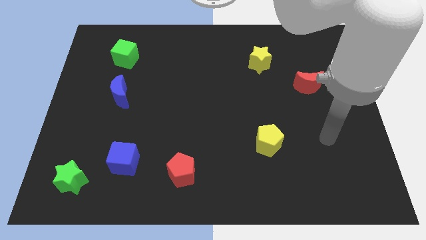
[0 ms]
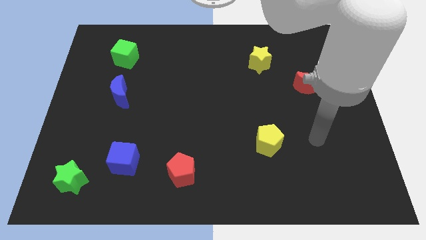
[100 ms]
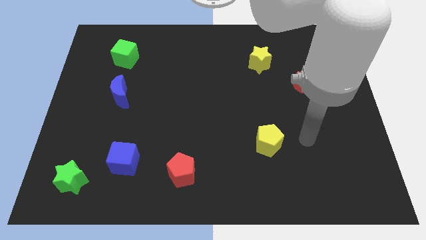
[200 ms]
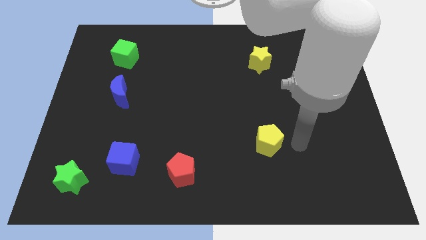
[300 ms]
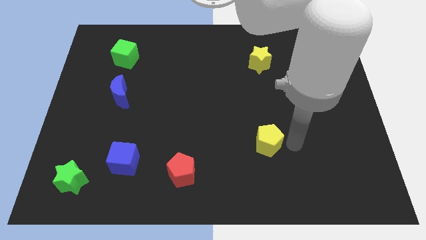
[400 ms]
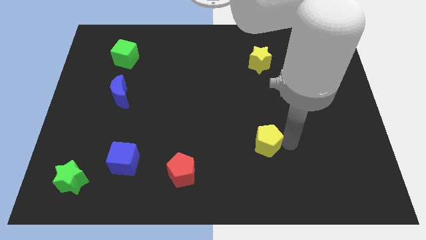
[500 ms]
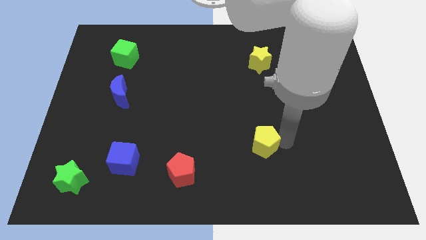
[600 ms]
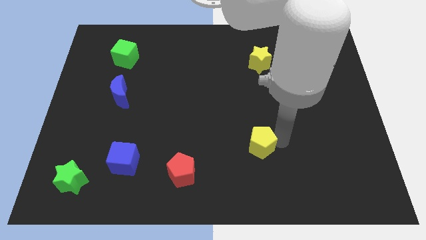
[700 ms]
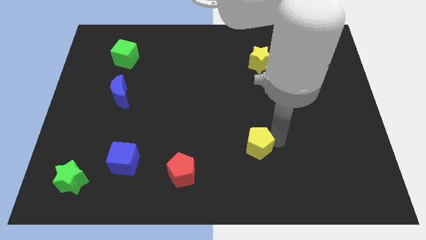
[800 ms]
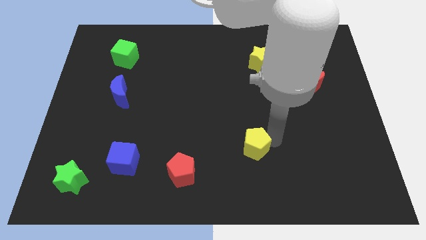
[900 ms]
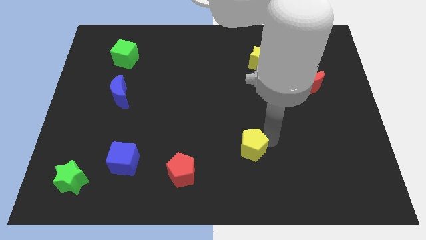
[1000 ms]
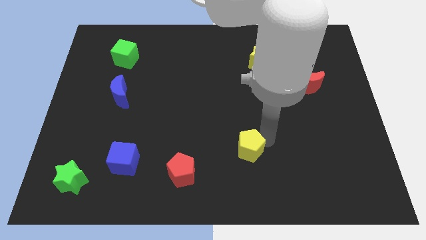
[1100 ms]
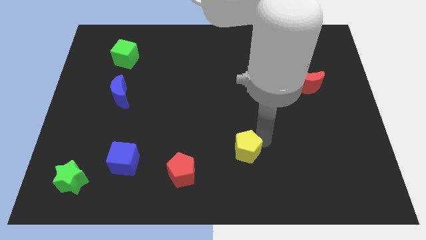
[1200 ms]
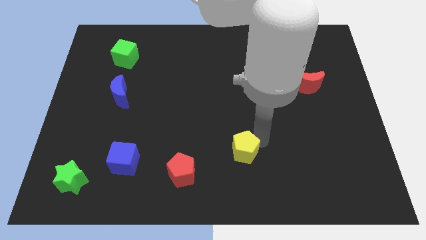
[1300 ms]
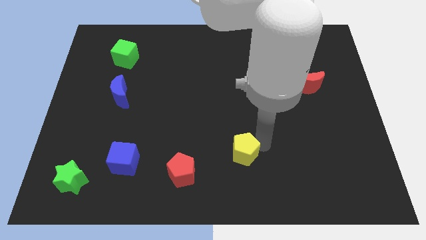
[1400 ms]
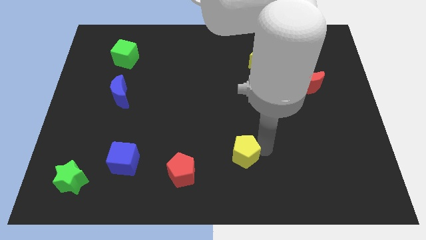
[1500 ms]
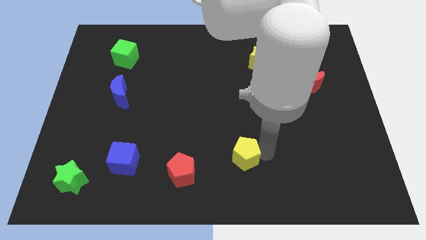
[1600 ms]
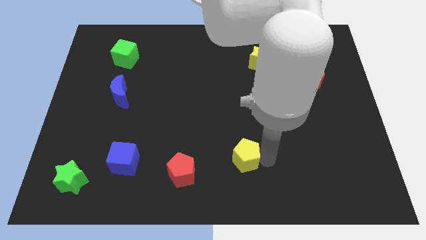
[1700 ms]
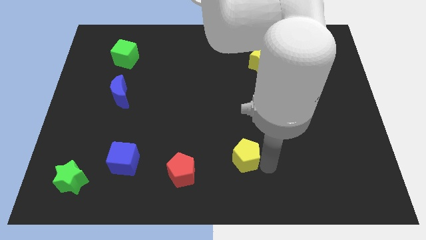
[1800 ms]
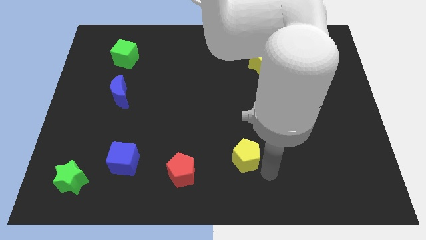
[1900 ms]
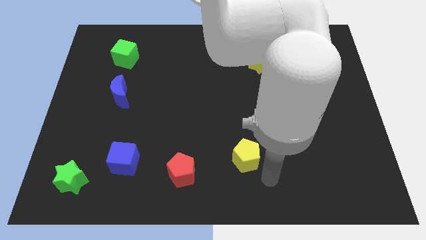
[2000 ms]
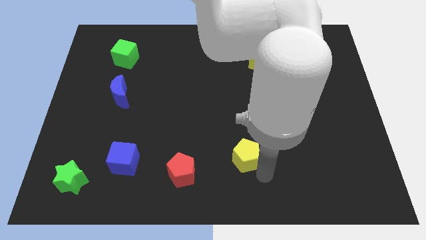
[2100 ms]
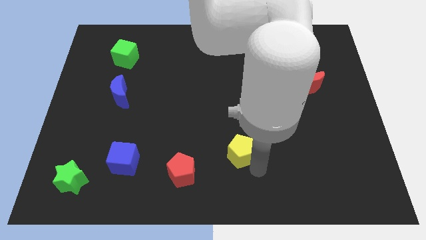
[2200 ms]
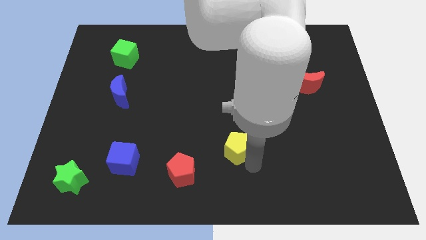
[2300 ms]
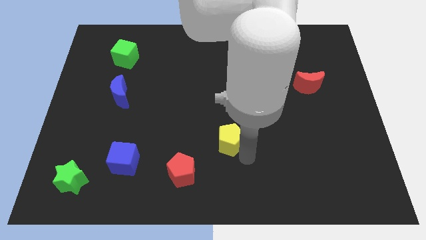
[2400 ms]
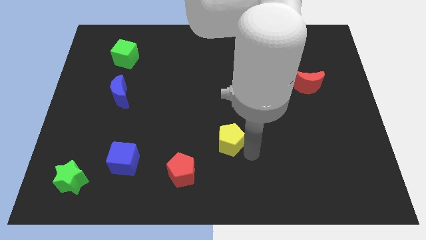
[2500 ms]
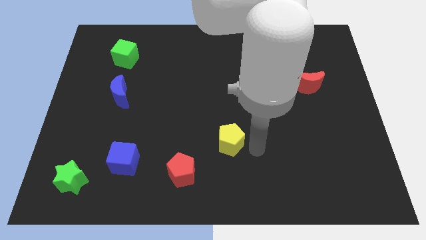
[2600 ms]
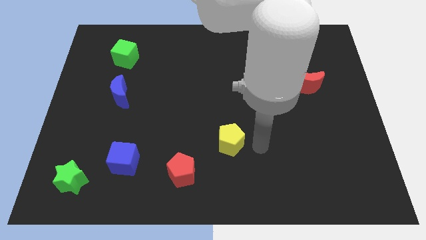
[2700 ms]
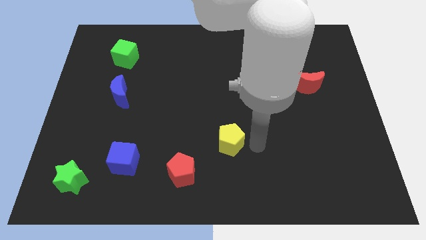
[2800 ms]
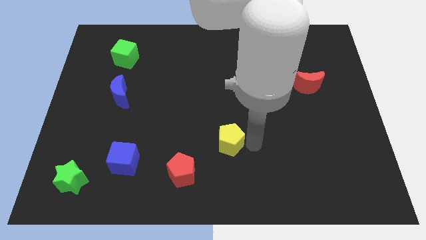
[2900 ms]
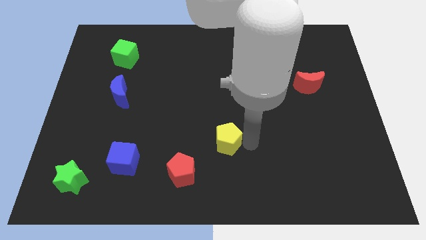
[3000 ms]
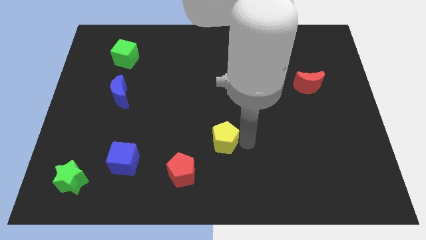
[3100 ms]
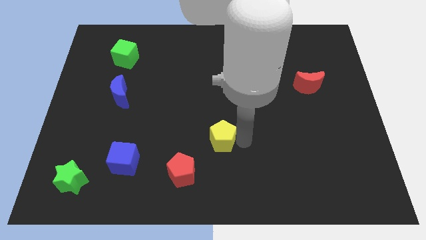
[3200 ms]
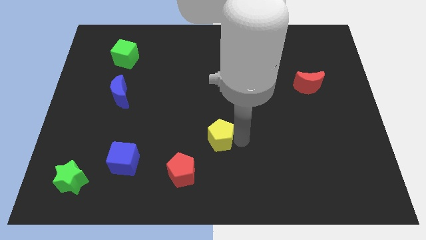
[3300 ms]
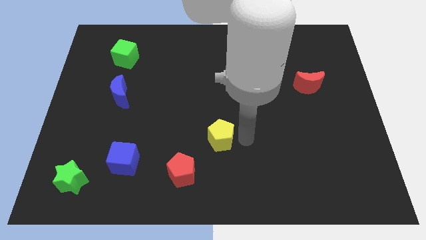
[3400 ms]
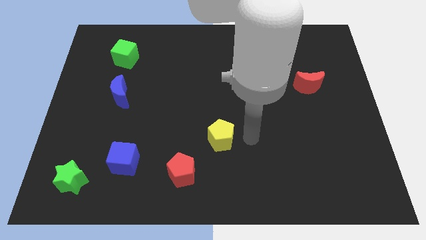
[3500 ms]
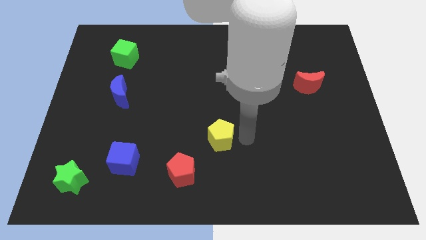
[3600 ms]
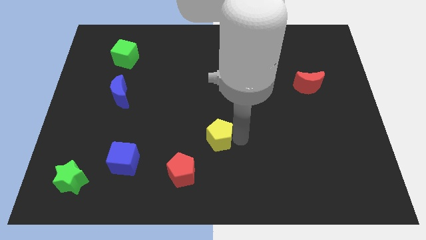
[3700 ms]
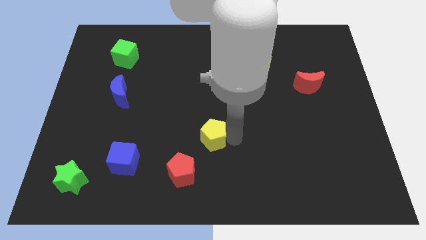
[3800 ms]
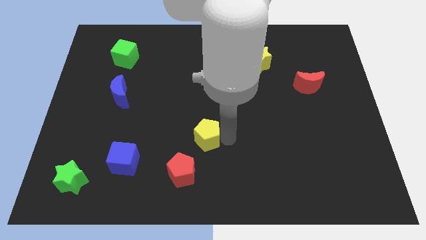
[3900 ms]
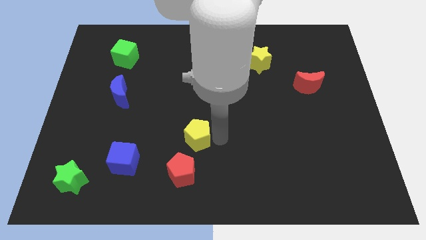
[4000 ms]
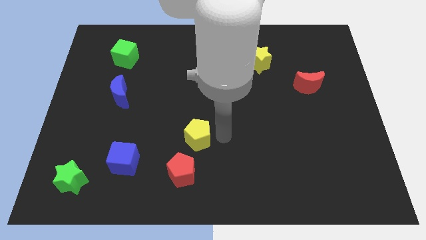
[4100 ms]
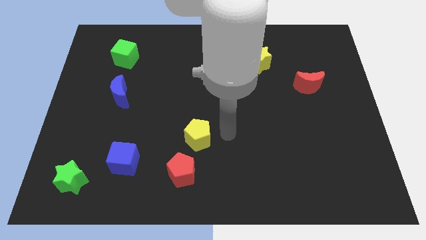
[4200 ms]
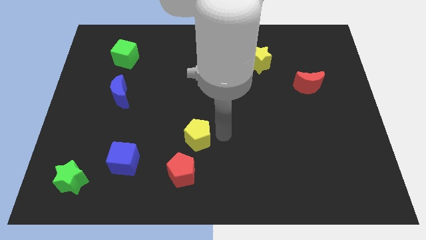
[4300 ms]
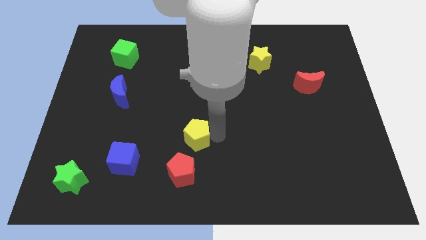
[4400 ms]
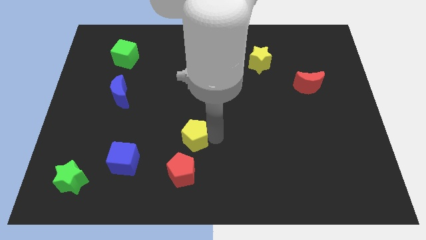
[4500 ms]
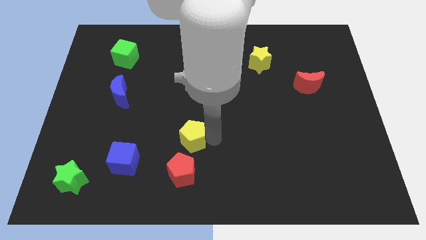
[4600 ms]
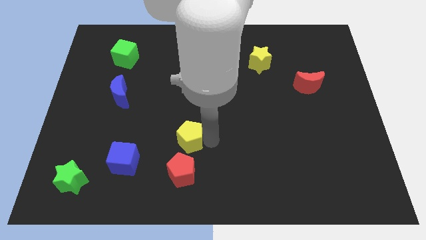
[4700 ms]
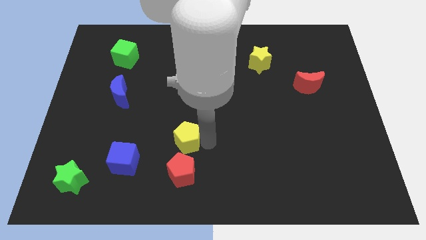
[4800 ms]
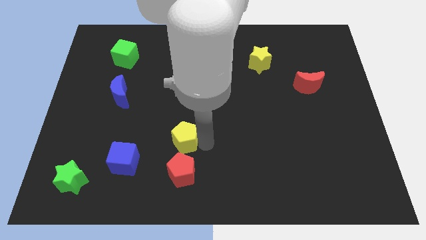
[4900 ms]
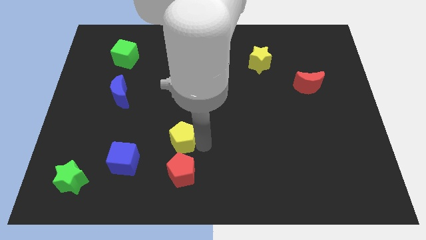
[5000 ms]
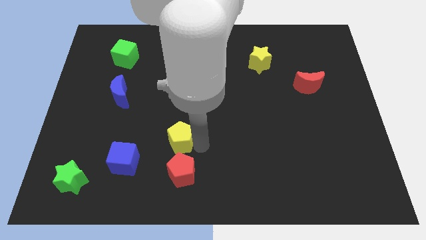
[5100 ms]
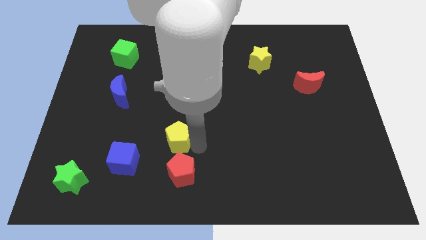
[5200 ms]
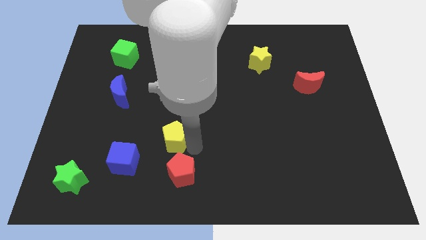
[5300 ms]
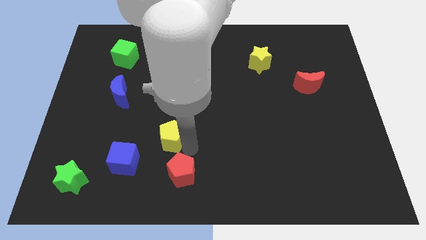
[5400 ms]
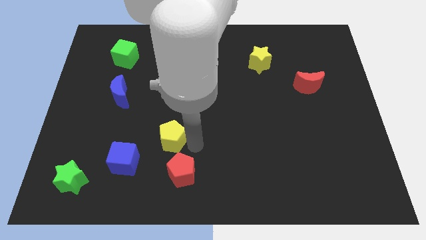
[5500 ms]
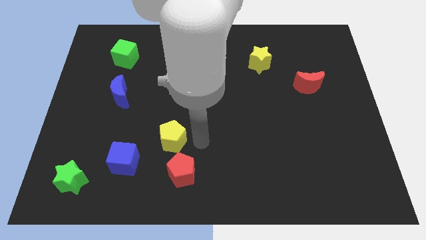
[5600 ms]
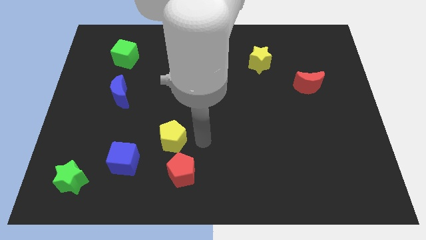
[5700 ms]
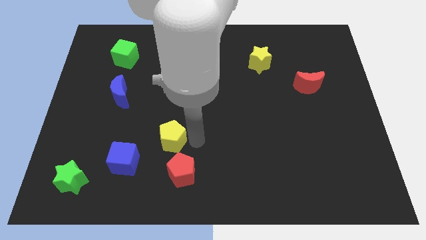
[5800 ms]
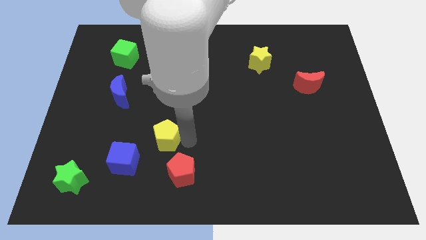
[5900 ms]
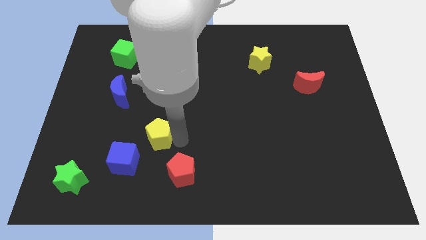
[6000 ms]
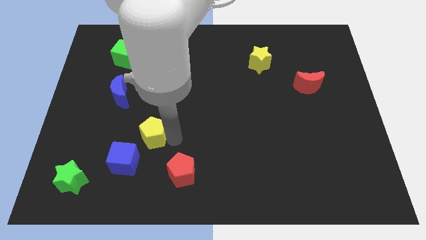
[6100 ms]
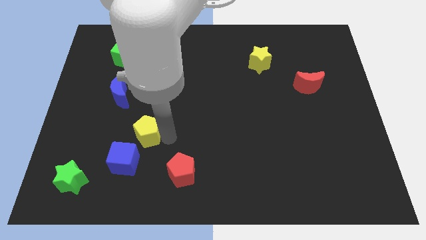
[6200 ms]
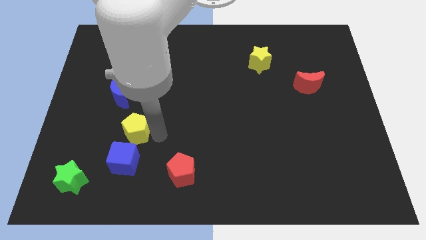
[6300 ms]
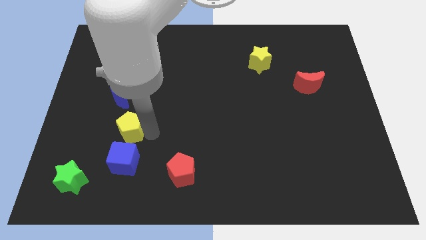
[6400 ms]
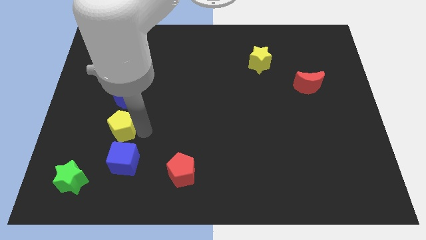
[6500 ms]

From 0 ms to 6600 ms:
put the yellow pentagon to the top left of the blue cube
